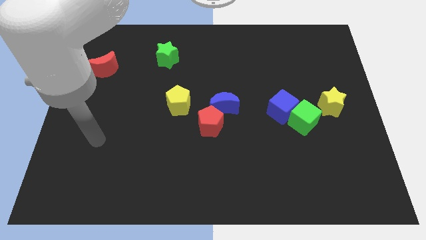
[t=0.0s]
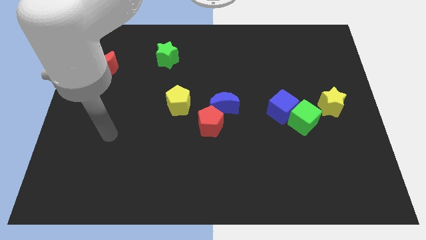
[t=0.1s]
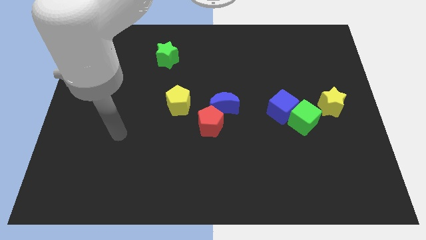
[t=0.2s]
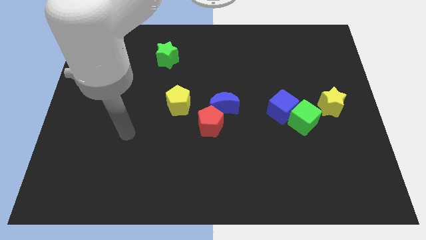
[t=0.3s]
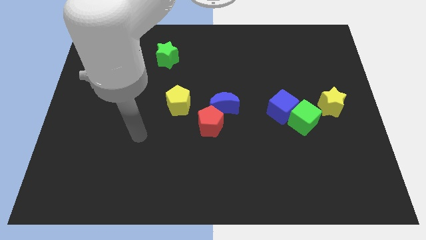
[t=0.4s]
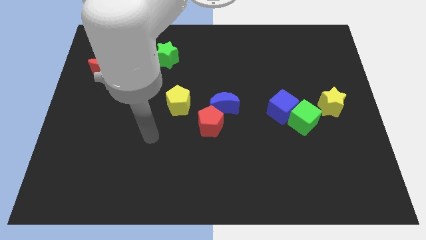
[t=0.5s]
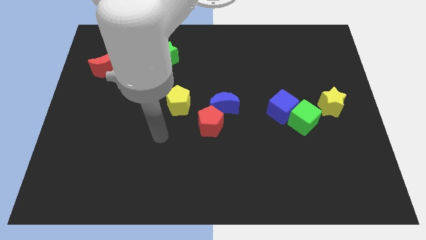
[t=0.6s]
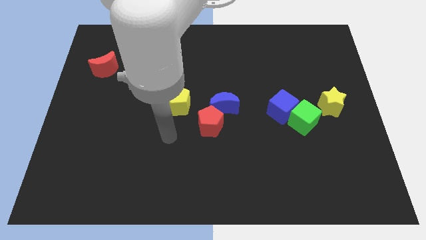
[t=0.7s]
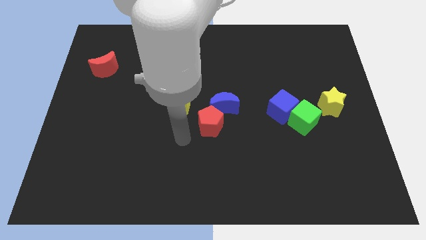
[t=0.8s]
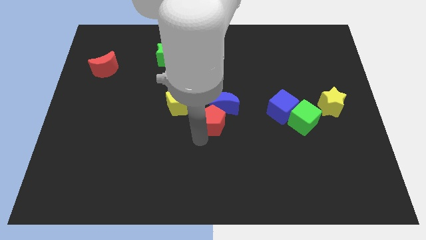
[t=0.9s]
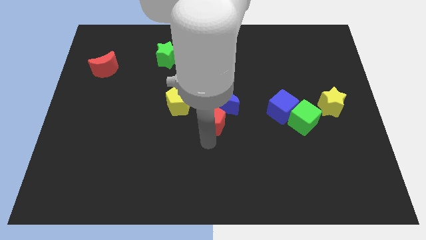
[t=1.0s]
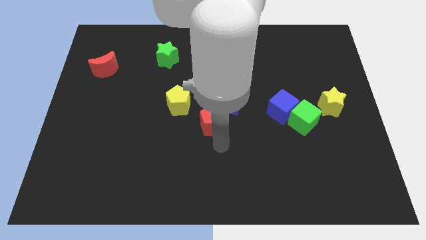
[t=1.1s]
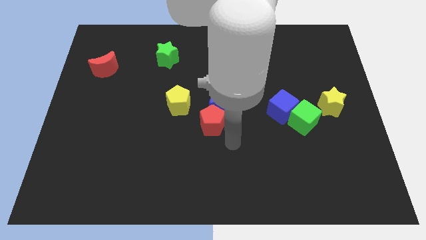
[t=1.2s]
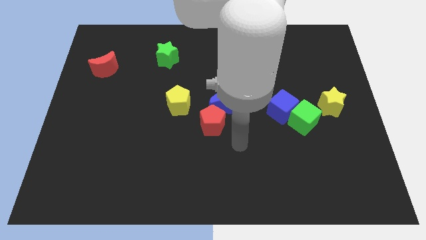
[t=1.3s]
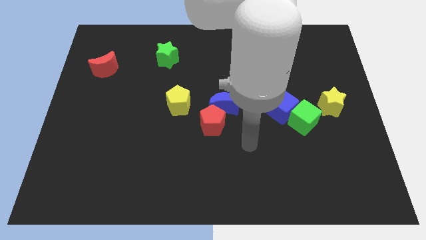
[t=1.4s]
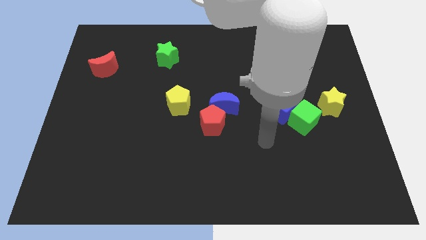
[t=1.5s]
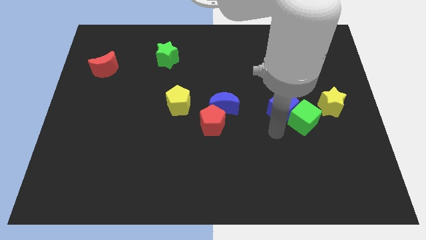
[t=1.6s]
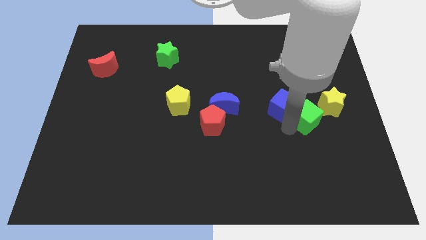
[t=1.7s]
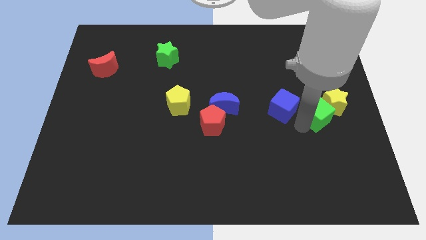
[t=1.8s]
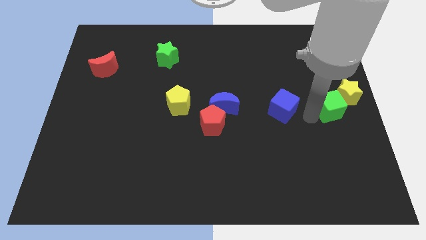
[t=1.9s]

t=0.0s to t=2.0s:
separate the blue cube from the green cube

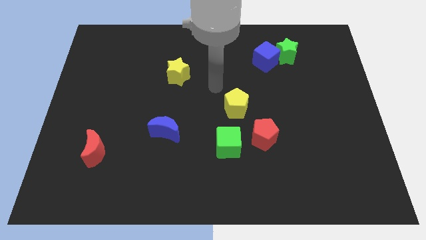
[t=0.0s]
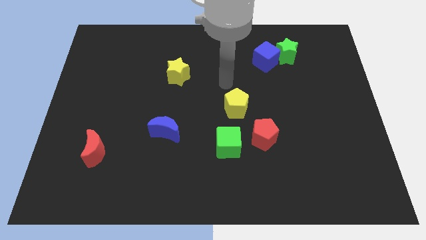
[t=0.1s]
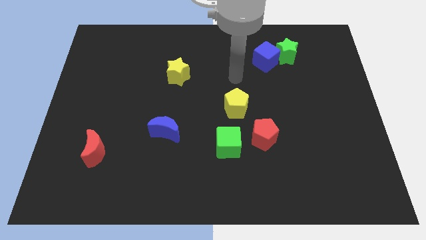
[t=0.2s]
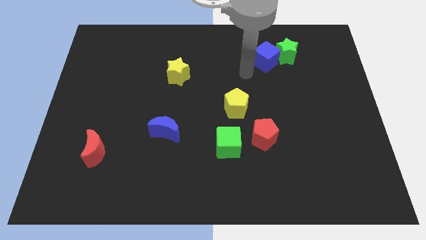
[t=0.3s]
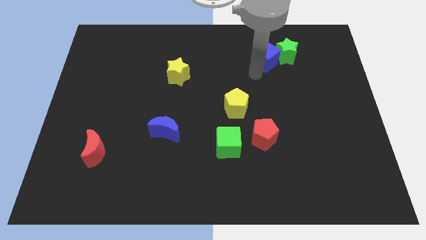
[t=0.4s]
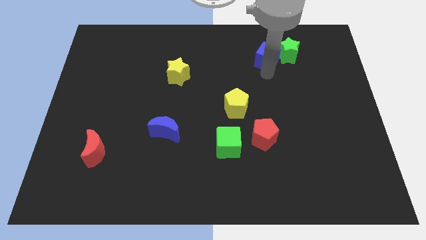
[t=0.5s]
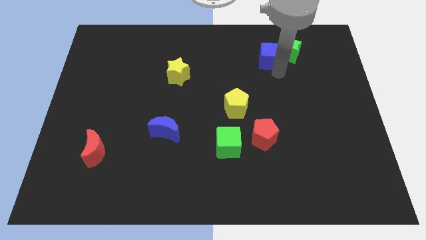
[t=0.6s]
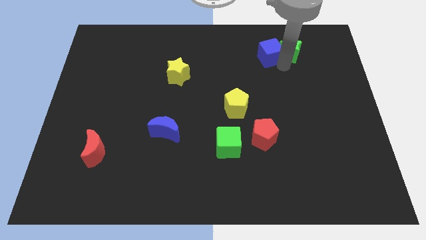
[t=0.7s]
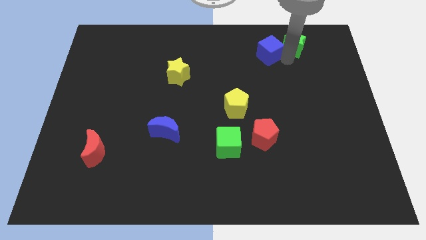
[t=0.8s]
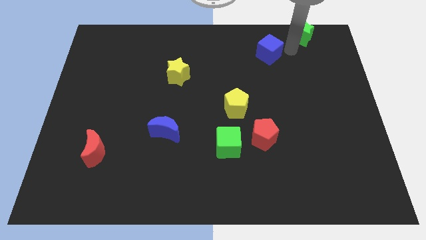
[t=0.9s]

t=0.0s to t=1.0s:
pull the blue cube apart from the green star

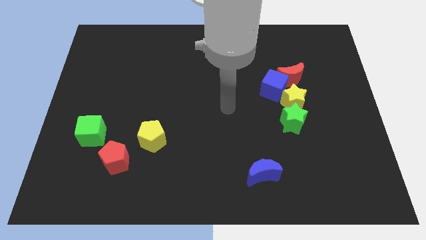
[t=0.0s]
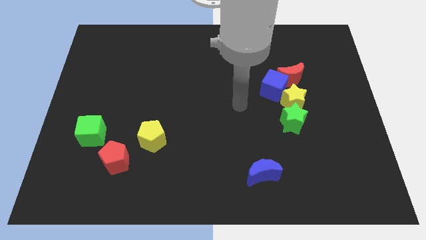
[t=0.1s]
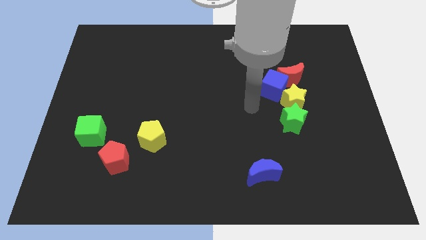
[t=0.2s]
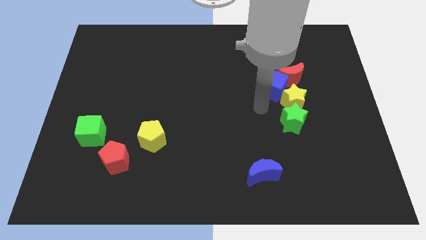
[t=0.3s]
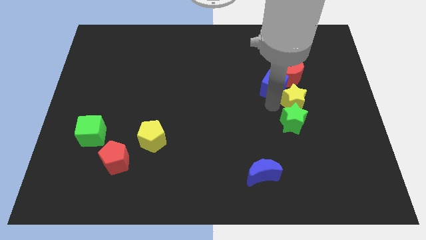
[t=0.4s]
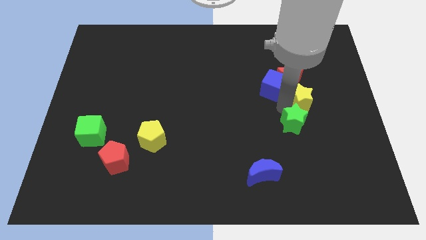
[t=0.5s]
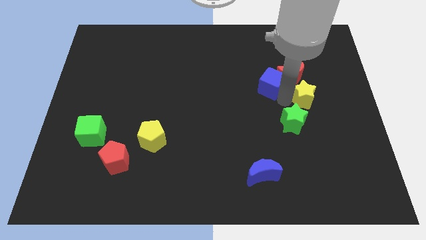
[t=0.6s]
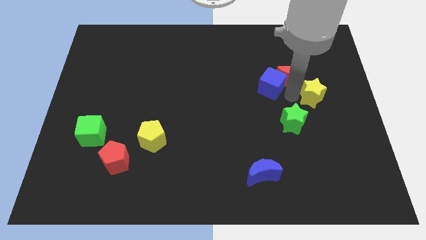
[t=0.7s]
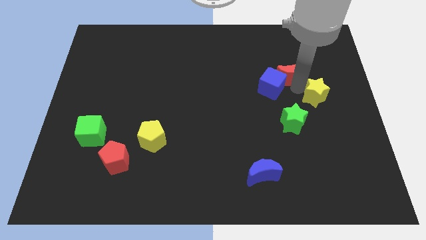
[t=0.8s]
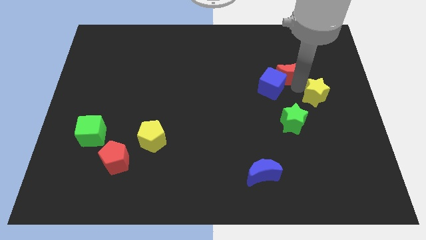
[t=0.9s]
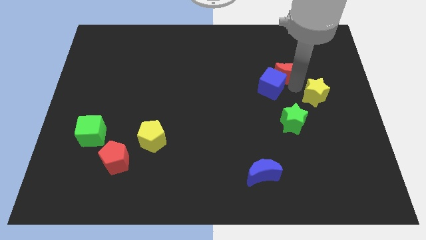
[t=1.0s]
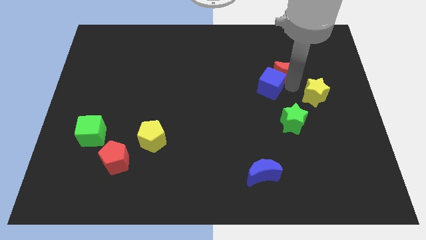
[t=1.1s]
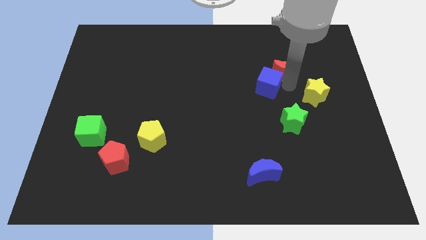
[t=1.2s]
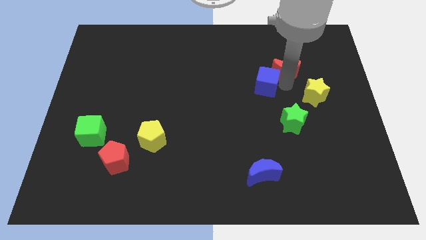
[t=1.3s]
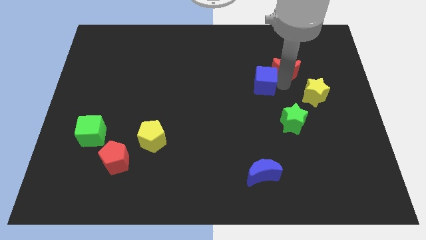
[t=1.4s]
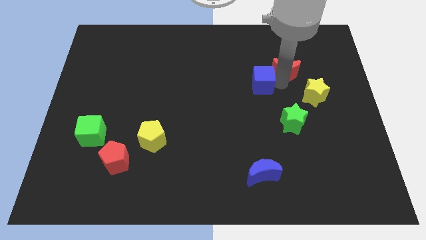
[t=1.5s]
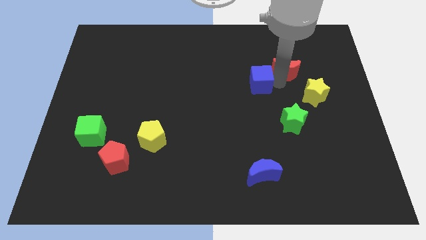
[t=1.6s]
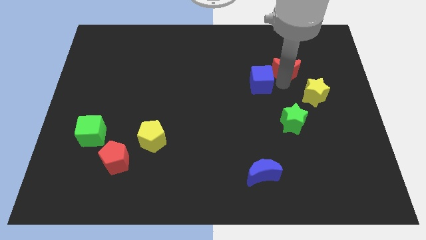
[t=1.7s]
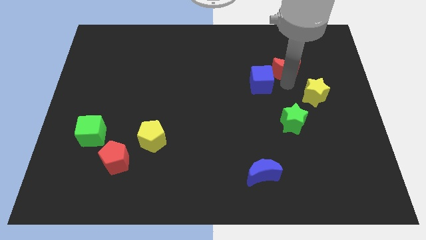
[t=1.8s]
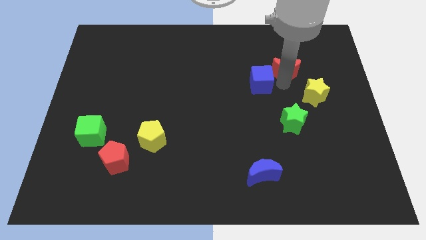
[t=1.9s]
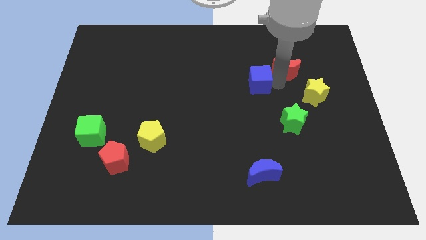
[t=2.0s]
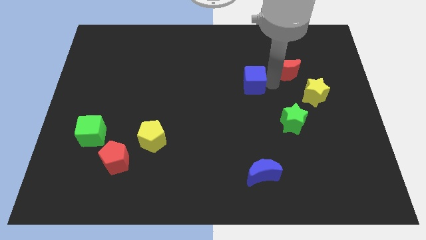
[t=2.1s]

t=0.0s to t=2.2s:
pull the blue cube apart from the red moon and yellow star

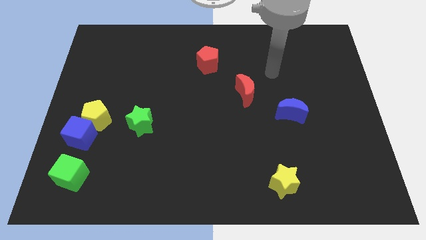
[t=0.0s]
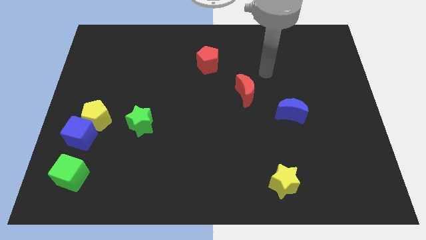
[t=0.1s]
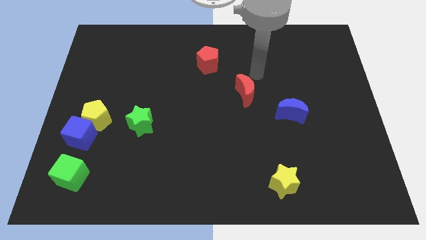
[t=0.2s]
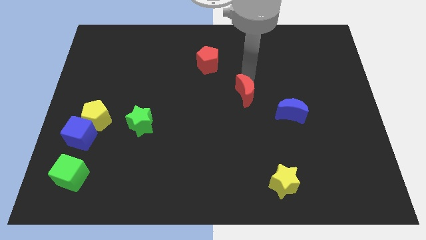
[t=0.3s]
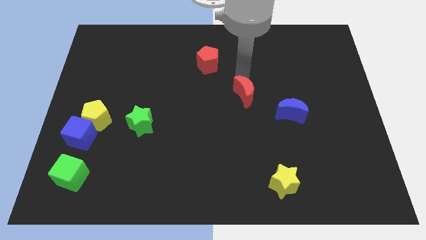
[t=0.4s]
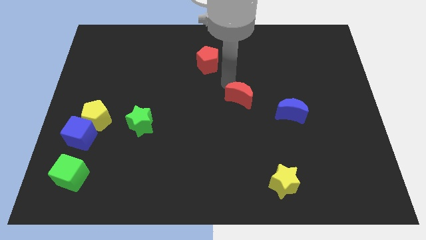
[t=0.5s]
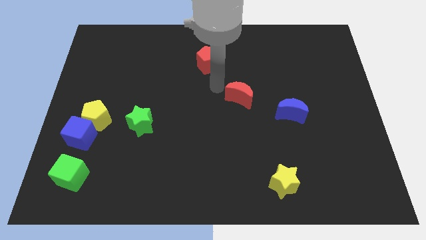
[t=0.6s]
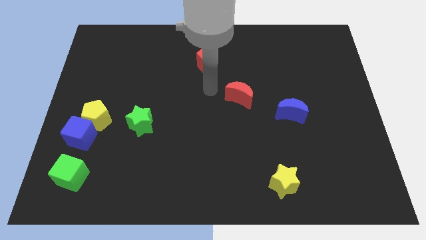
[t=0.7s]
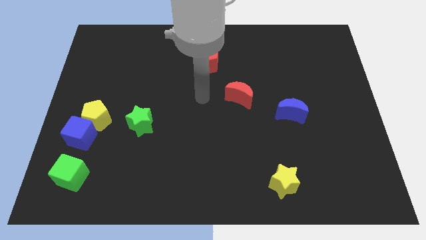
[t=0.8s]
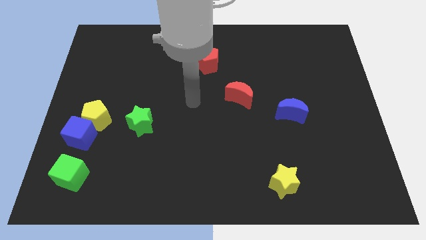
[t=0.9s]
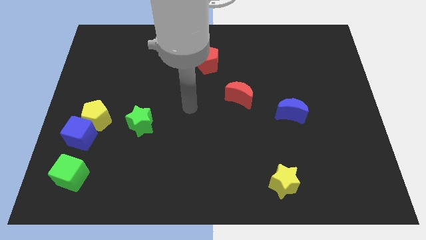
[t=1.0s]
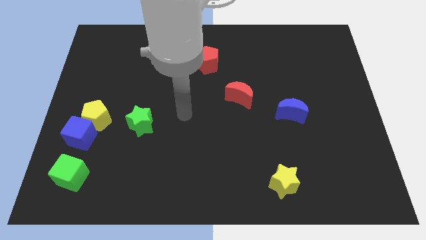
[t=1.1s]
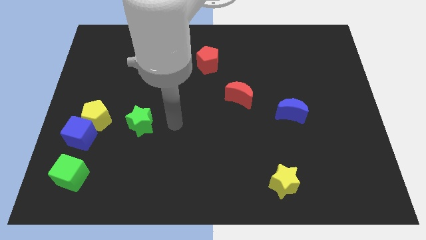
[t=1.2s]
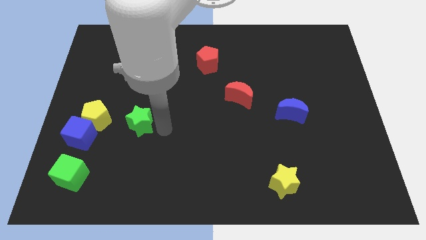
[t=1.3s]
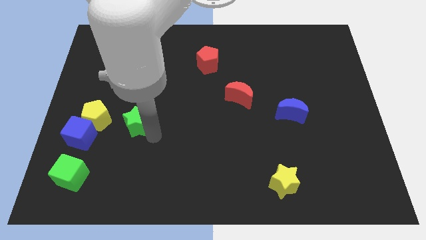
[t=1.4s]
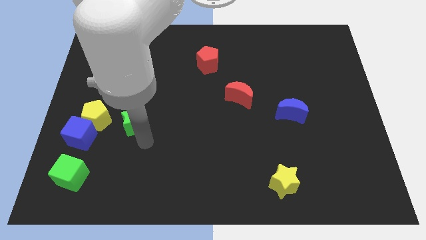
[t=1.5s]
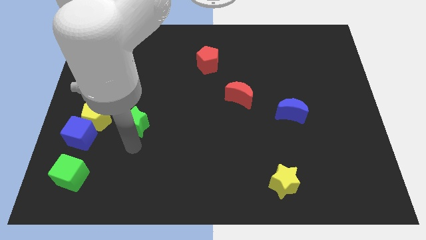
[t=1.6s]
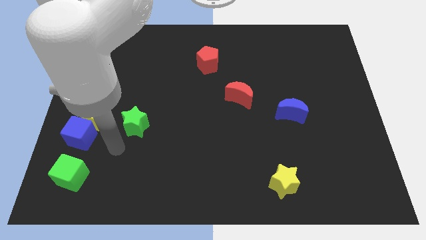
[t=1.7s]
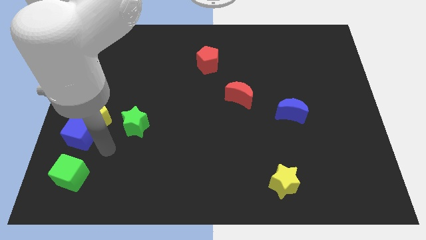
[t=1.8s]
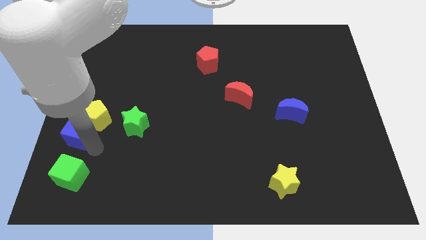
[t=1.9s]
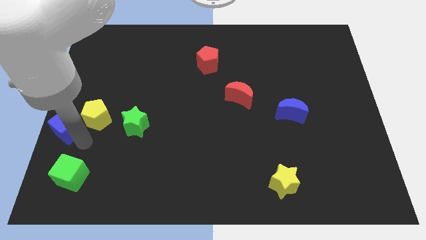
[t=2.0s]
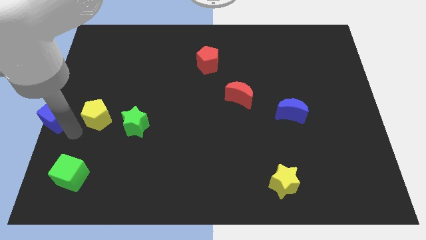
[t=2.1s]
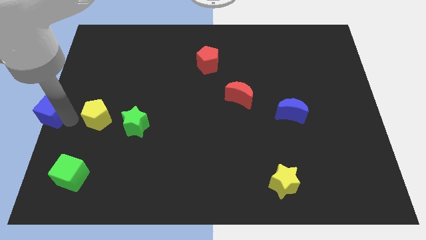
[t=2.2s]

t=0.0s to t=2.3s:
separate the yellow pentagon from the blue cube

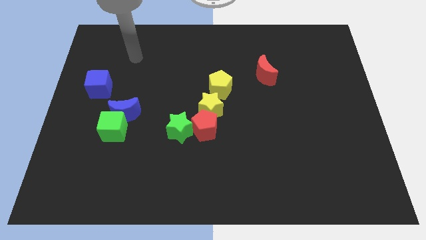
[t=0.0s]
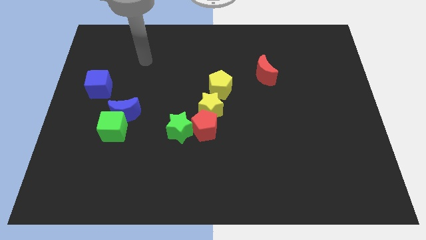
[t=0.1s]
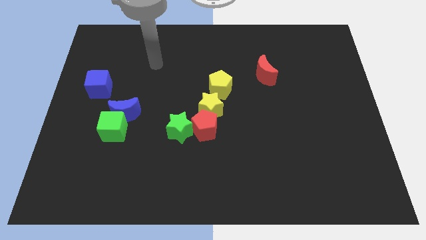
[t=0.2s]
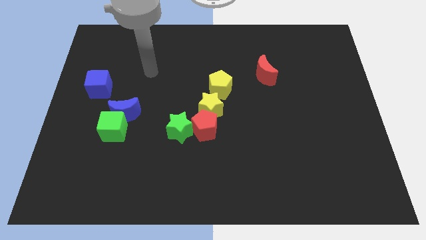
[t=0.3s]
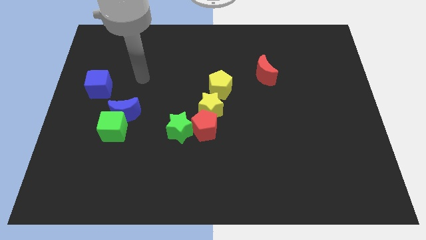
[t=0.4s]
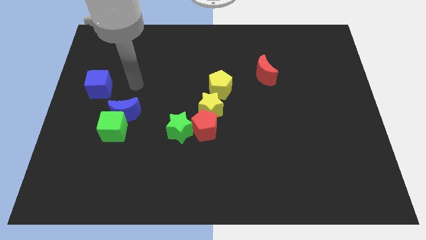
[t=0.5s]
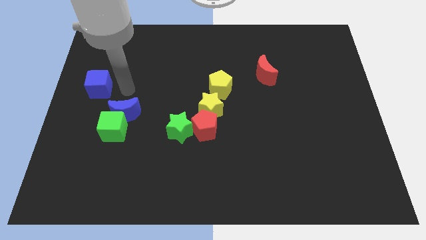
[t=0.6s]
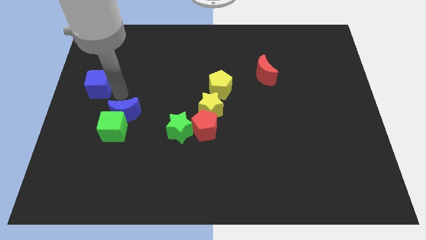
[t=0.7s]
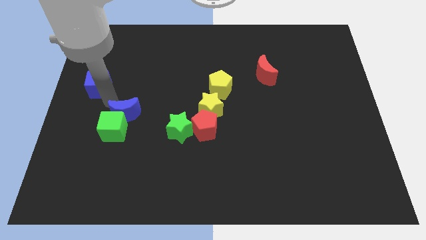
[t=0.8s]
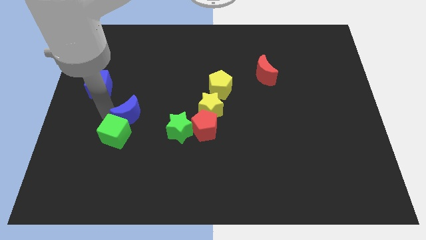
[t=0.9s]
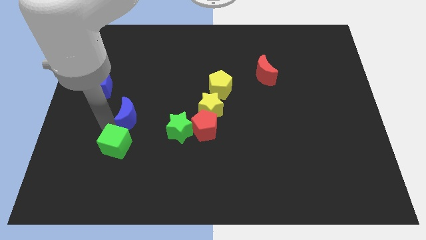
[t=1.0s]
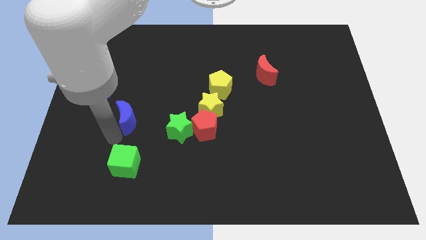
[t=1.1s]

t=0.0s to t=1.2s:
separate the blue moon from the green cube

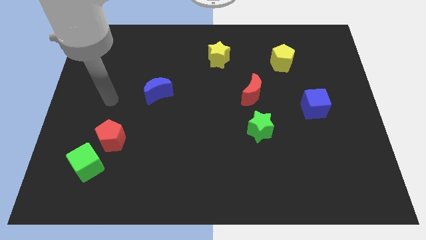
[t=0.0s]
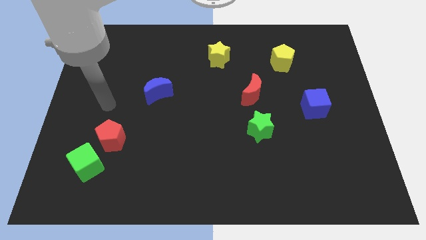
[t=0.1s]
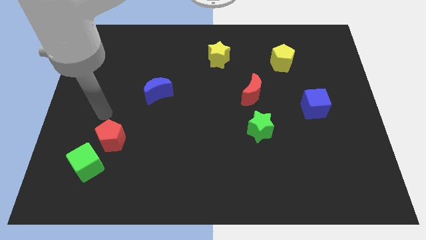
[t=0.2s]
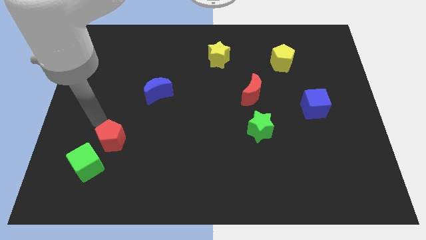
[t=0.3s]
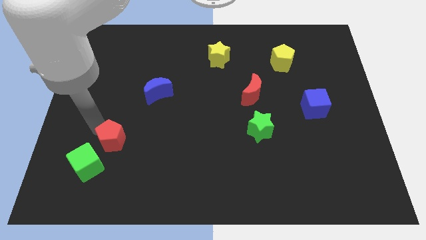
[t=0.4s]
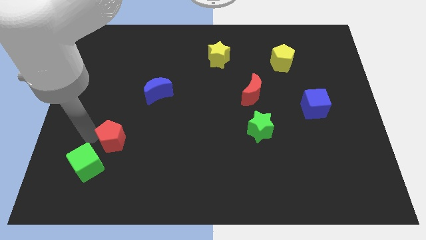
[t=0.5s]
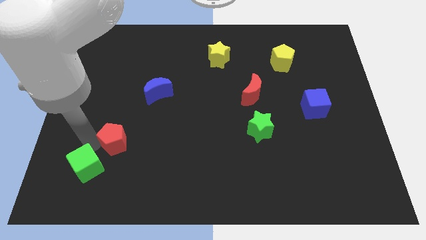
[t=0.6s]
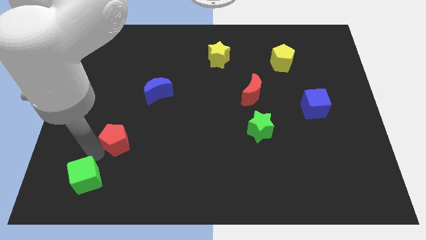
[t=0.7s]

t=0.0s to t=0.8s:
move the red pentagon away from the green cube
